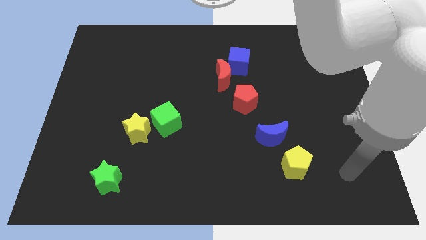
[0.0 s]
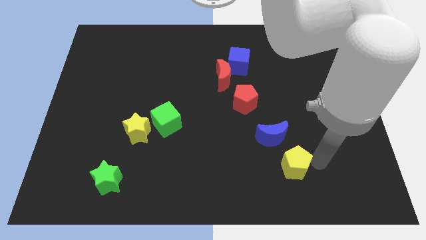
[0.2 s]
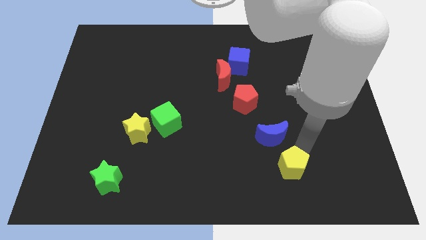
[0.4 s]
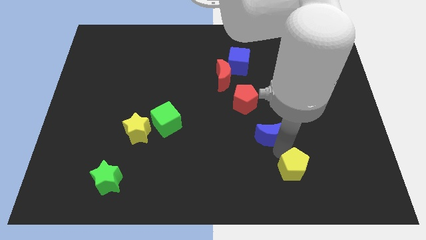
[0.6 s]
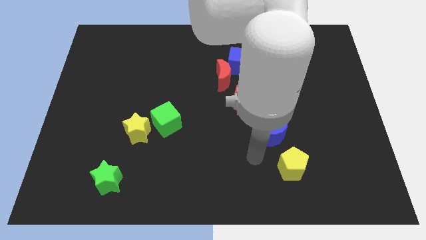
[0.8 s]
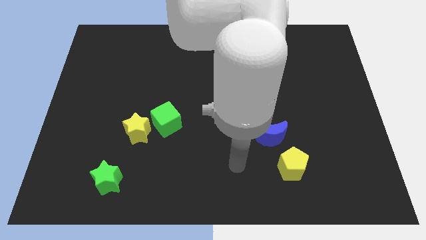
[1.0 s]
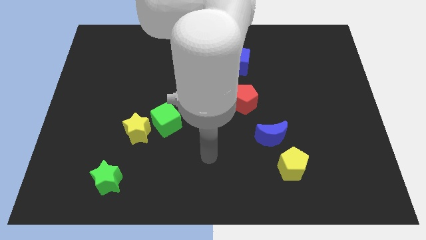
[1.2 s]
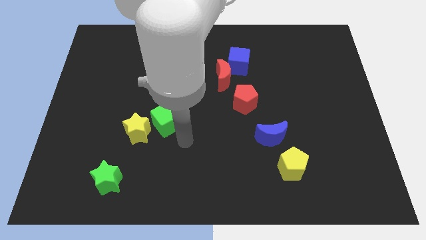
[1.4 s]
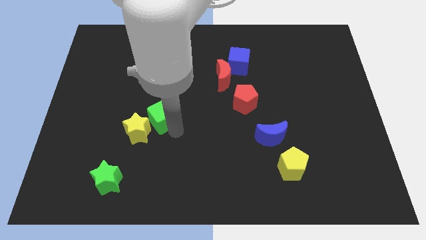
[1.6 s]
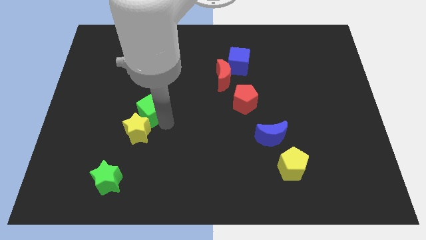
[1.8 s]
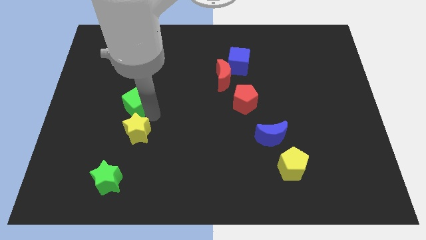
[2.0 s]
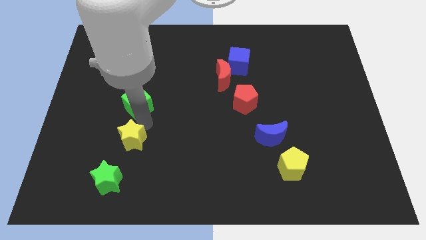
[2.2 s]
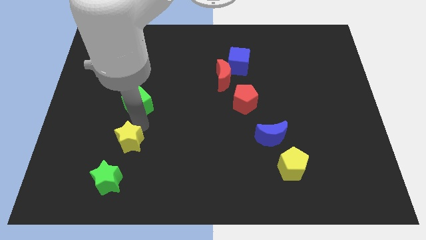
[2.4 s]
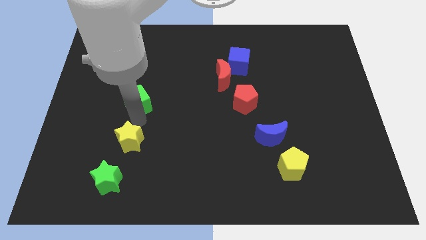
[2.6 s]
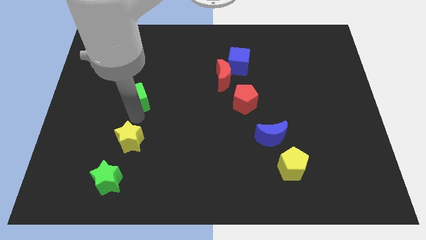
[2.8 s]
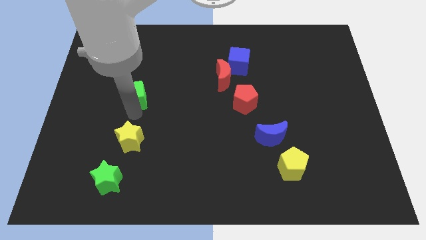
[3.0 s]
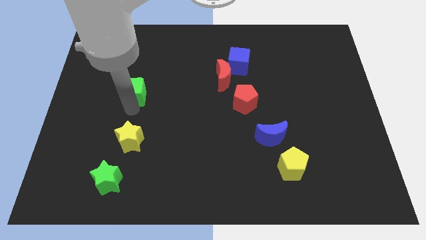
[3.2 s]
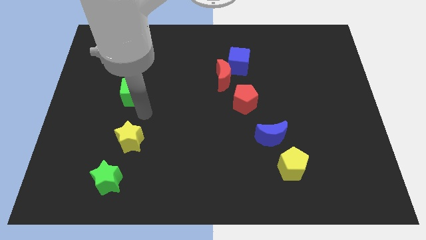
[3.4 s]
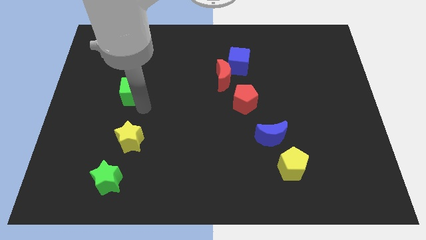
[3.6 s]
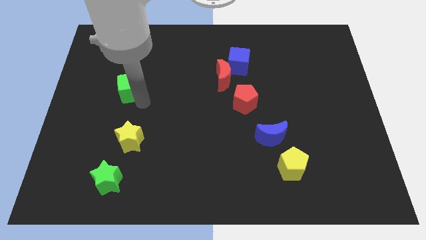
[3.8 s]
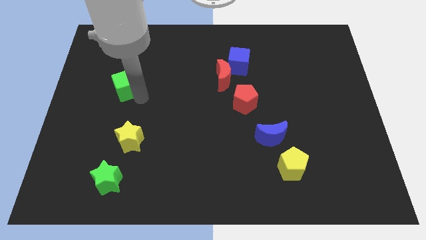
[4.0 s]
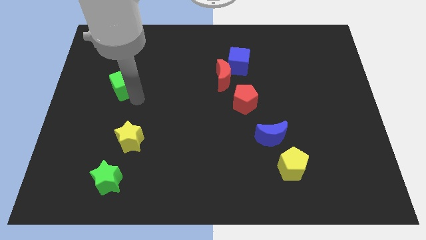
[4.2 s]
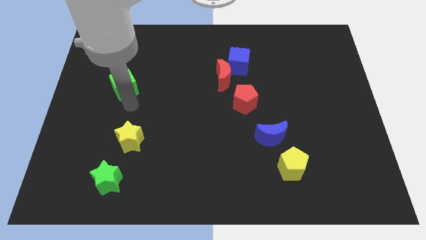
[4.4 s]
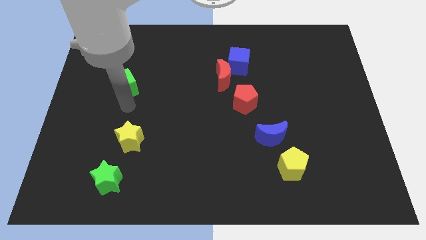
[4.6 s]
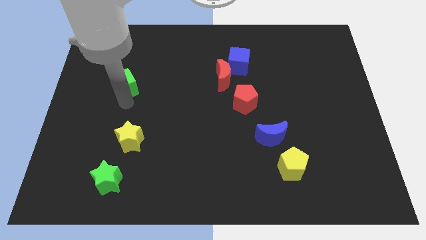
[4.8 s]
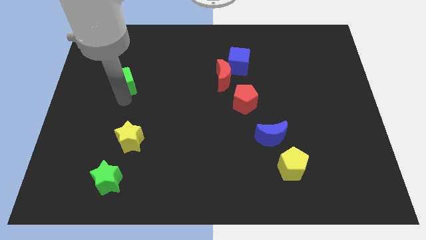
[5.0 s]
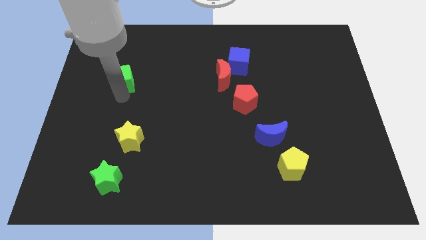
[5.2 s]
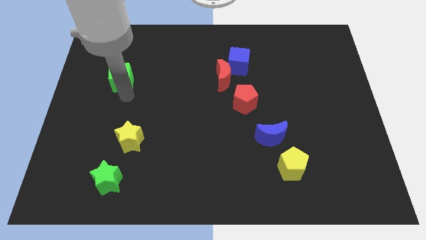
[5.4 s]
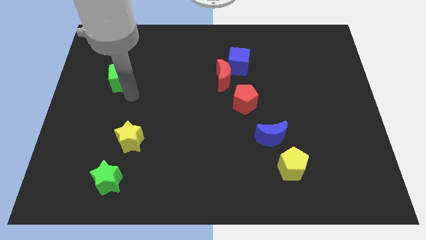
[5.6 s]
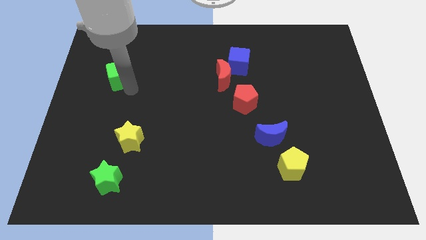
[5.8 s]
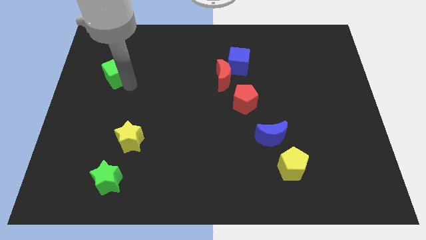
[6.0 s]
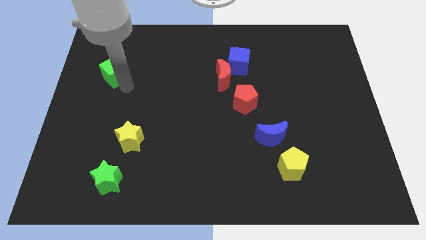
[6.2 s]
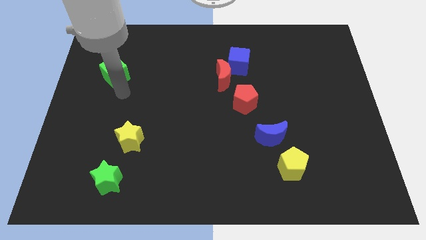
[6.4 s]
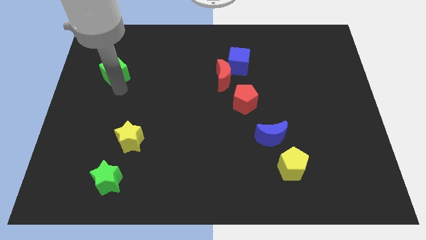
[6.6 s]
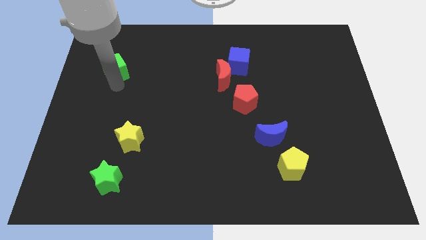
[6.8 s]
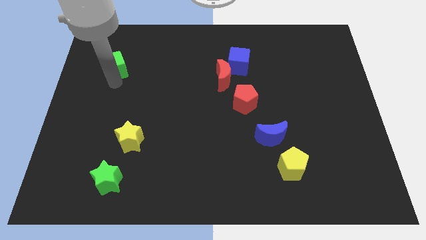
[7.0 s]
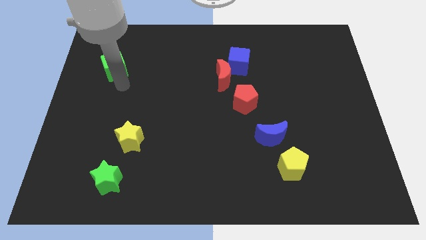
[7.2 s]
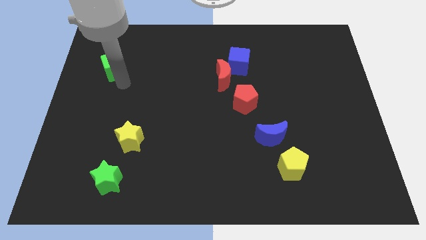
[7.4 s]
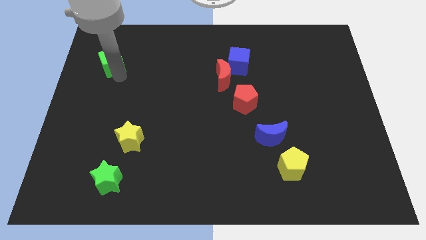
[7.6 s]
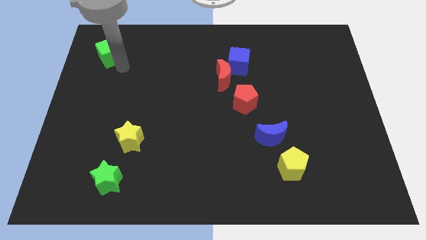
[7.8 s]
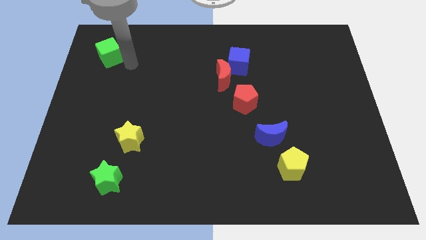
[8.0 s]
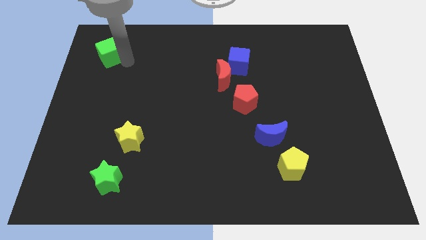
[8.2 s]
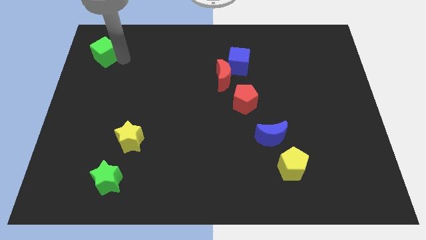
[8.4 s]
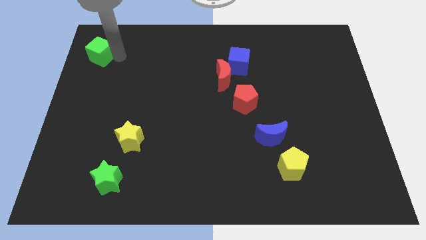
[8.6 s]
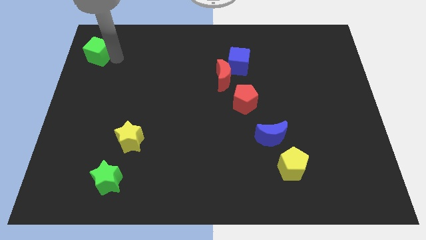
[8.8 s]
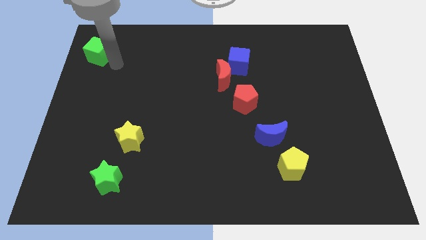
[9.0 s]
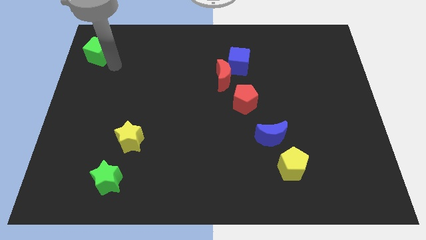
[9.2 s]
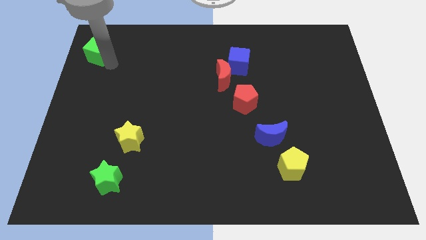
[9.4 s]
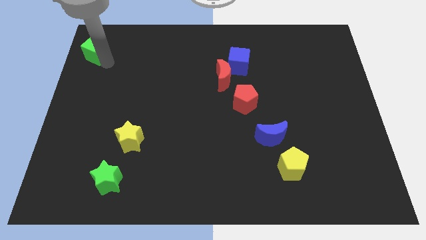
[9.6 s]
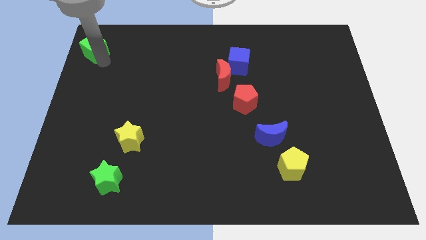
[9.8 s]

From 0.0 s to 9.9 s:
slide the green cube to the upper left corner

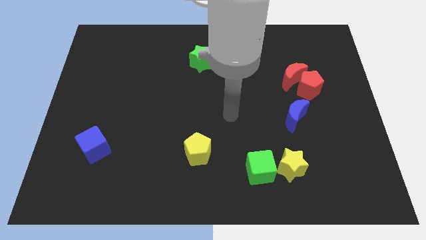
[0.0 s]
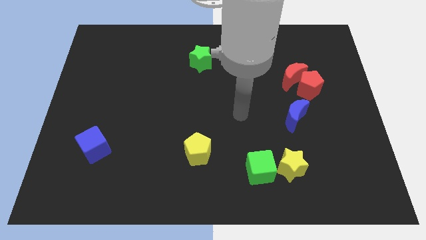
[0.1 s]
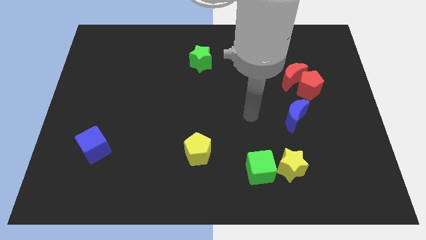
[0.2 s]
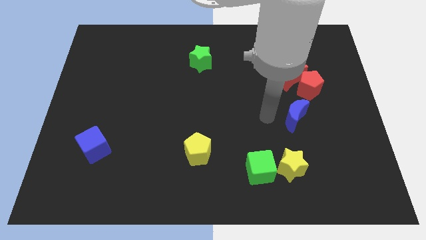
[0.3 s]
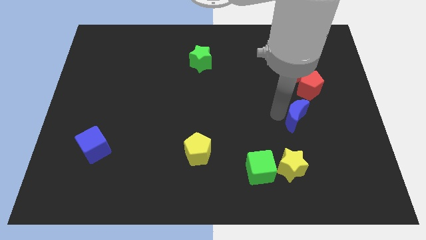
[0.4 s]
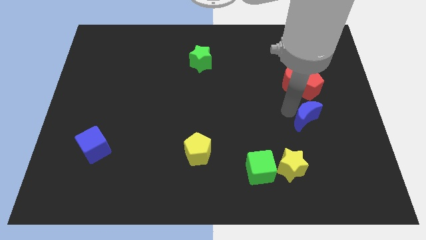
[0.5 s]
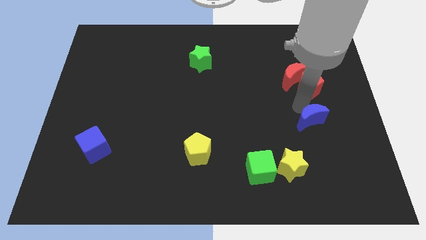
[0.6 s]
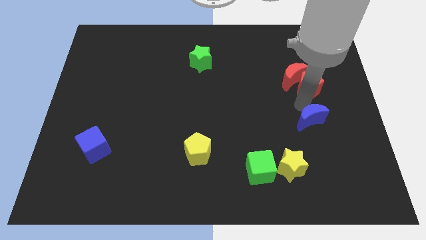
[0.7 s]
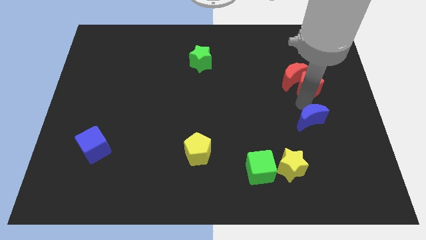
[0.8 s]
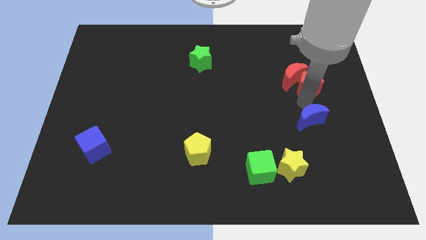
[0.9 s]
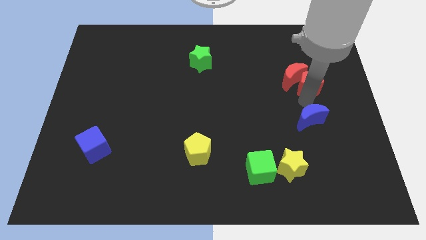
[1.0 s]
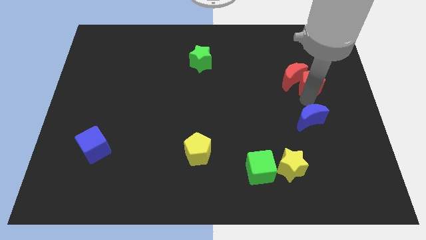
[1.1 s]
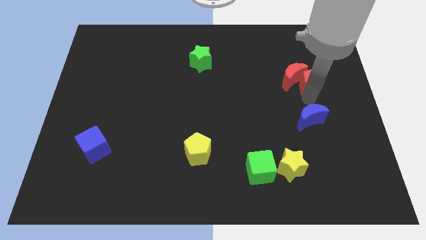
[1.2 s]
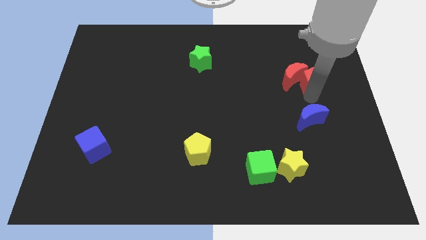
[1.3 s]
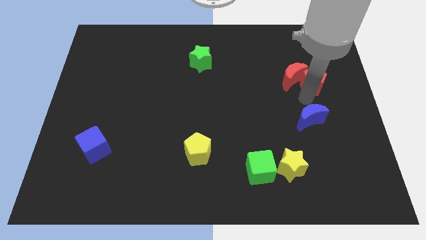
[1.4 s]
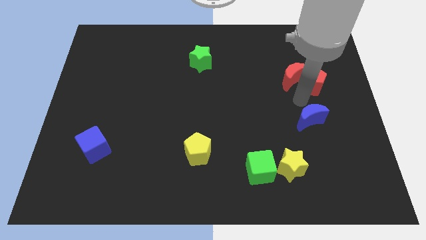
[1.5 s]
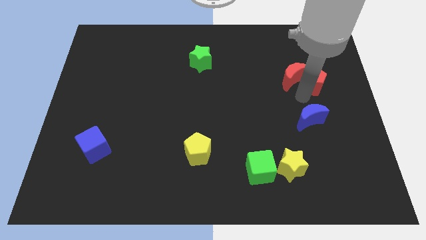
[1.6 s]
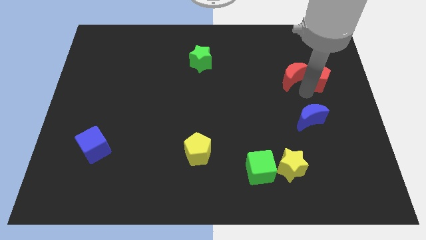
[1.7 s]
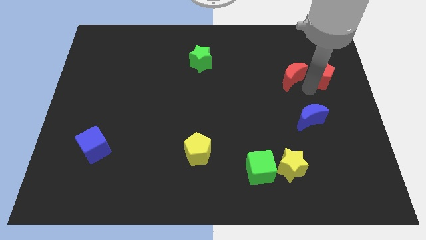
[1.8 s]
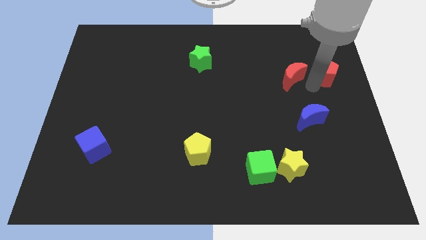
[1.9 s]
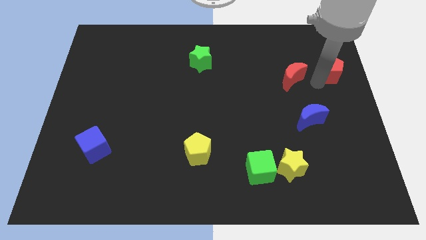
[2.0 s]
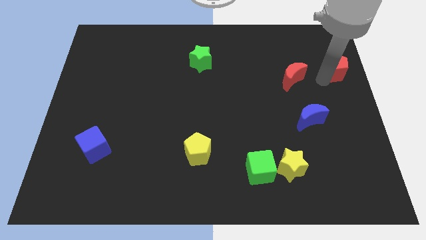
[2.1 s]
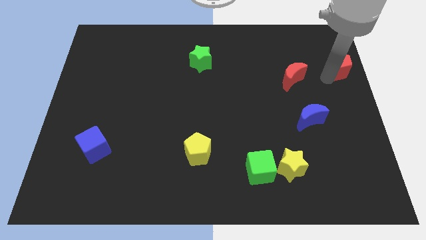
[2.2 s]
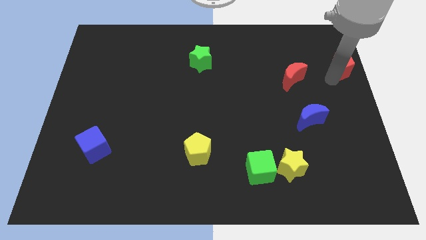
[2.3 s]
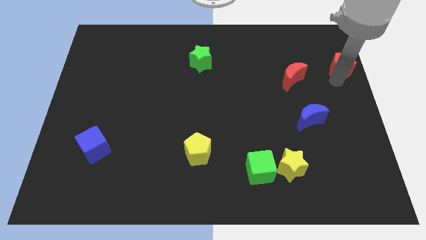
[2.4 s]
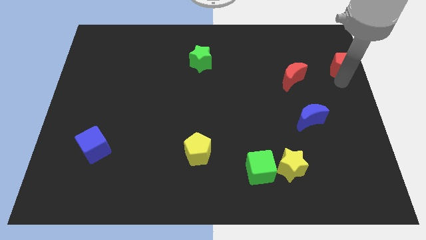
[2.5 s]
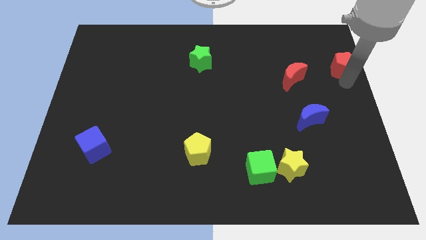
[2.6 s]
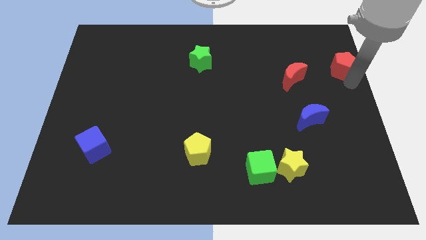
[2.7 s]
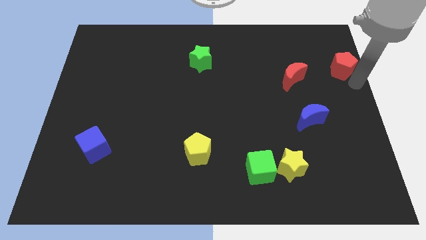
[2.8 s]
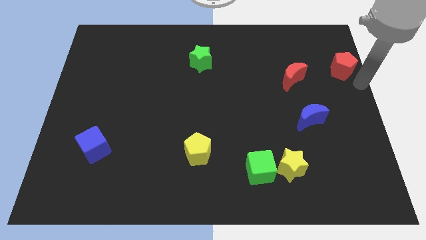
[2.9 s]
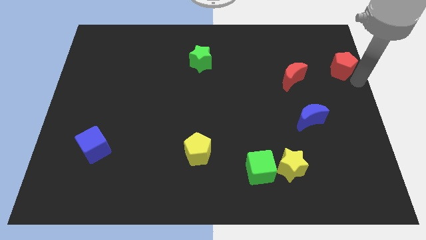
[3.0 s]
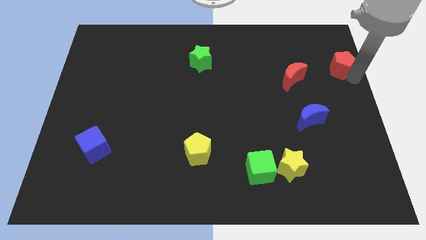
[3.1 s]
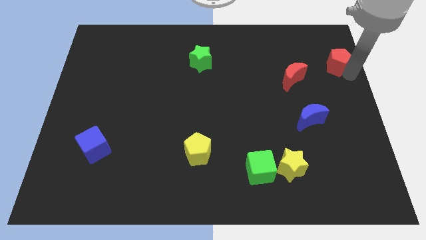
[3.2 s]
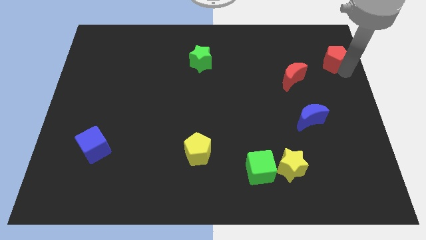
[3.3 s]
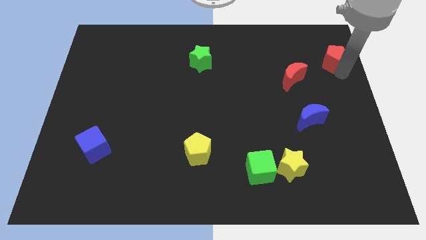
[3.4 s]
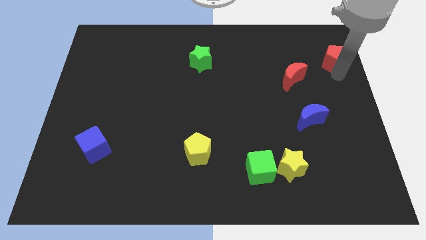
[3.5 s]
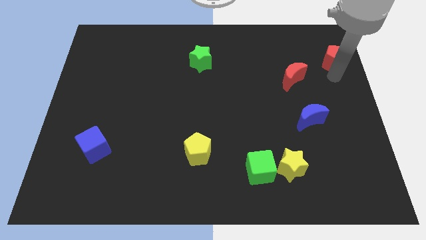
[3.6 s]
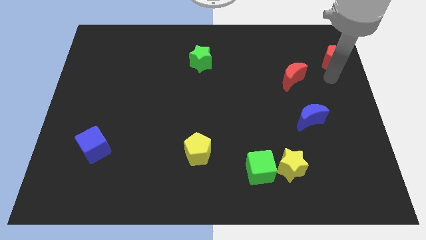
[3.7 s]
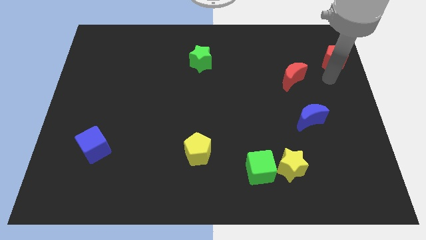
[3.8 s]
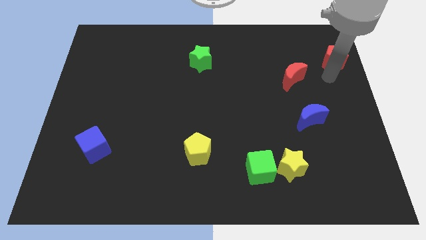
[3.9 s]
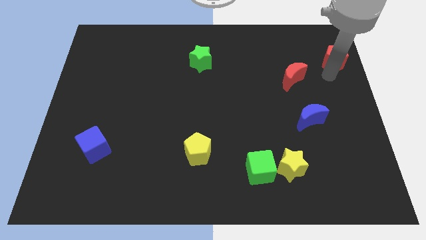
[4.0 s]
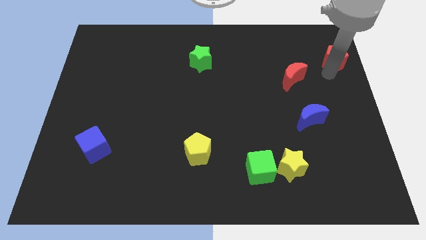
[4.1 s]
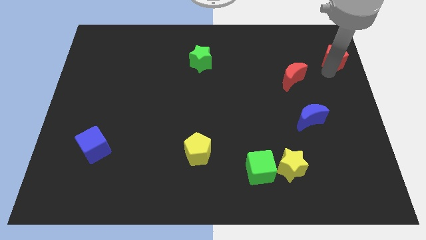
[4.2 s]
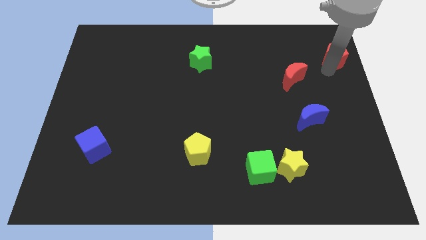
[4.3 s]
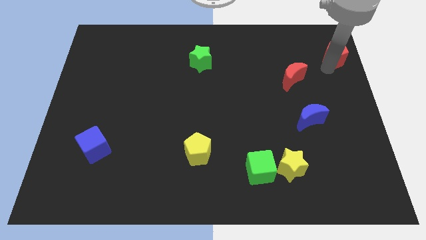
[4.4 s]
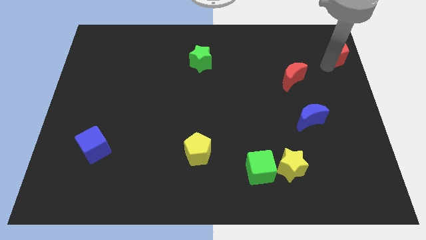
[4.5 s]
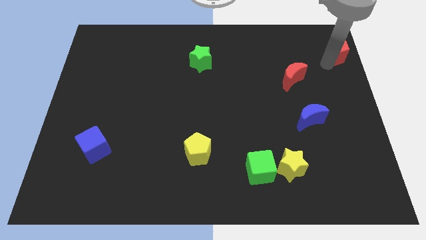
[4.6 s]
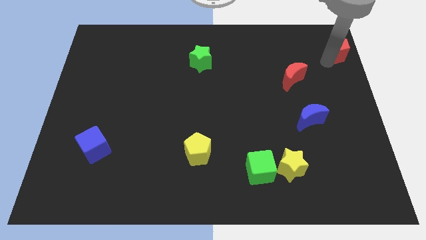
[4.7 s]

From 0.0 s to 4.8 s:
push the red pentagon to the top right corner
